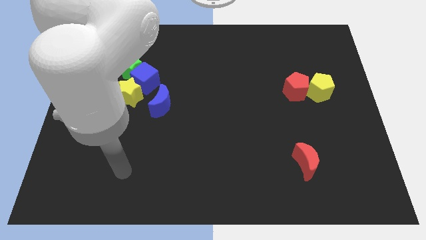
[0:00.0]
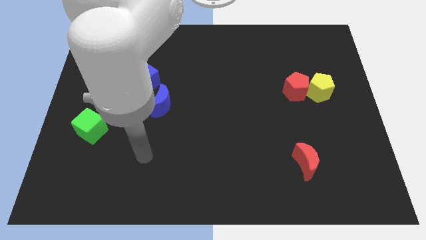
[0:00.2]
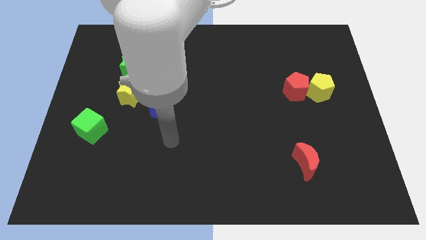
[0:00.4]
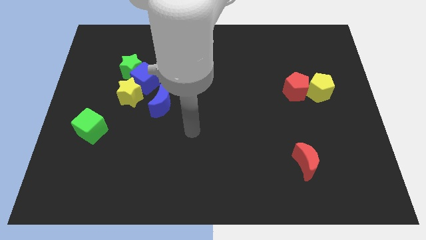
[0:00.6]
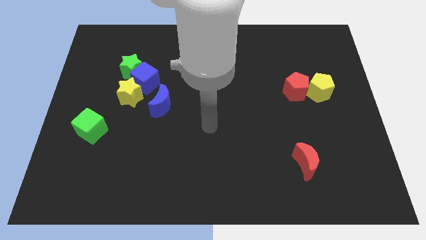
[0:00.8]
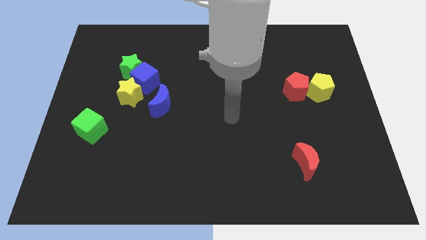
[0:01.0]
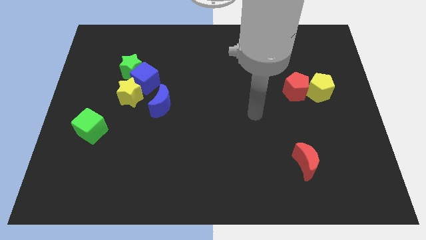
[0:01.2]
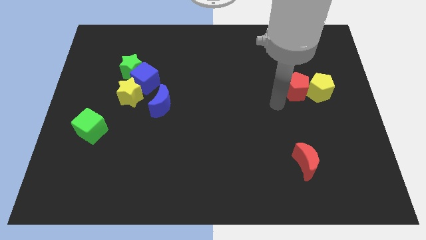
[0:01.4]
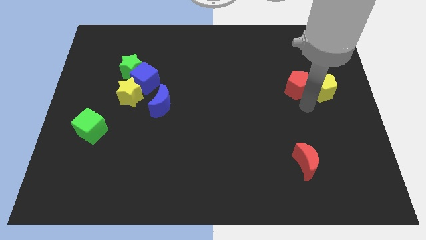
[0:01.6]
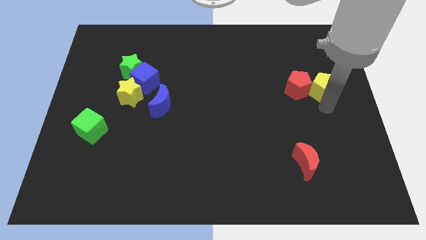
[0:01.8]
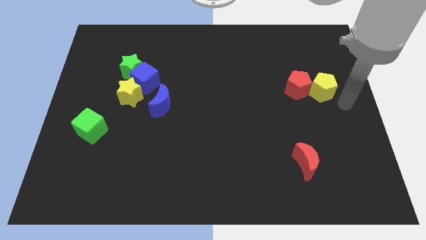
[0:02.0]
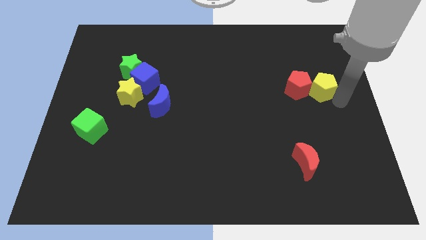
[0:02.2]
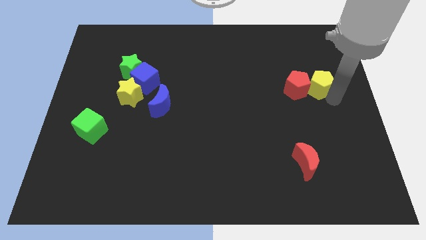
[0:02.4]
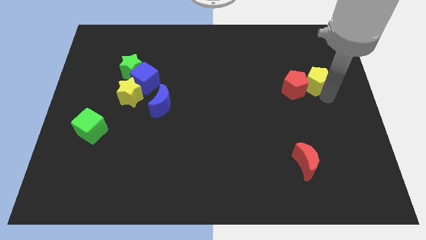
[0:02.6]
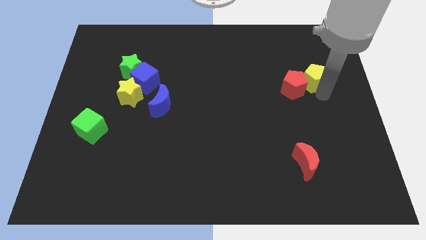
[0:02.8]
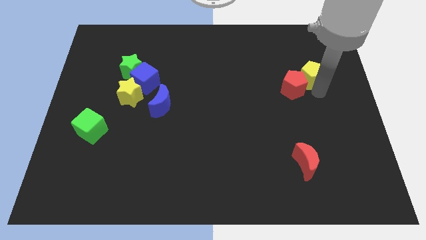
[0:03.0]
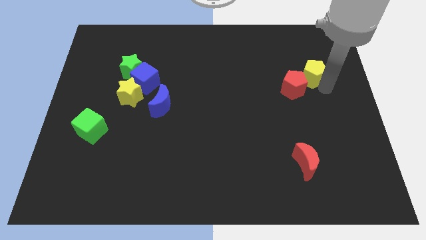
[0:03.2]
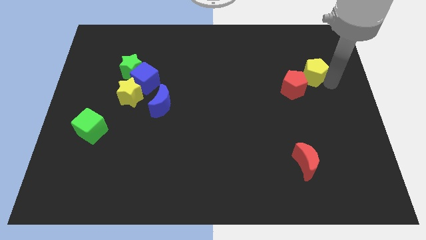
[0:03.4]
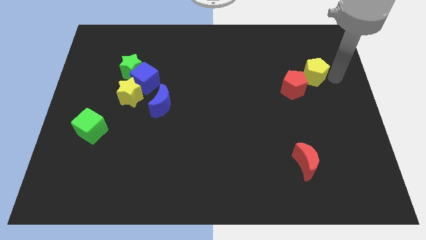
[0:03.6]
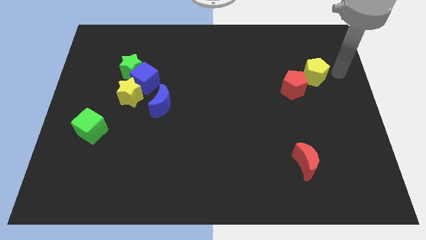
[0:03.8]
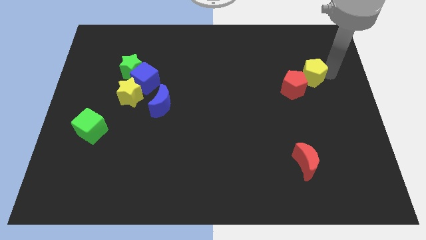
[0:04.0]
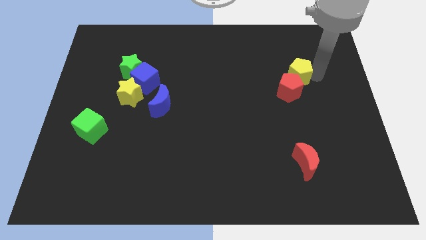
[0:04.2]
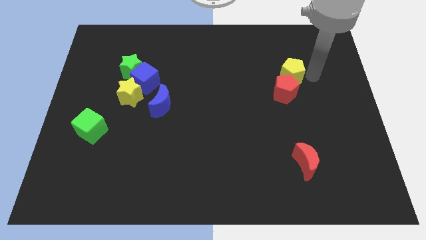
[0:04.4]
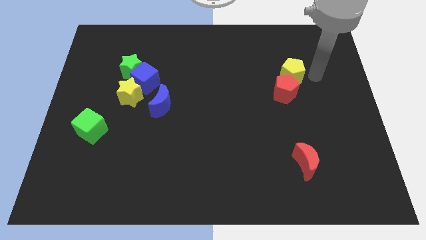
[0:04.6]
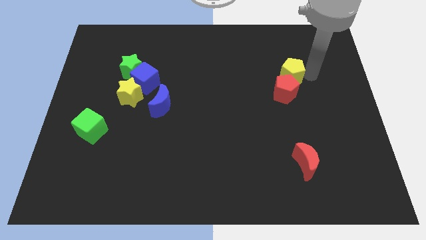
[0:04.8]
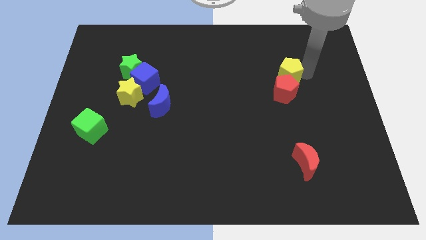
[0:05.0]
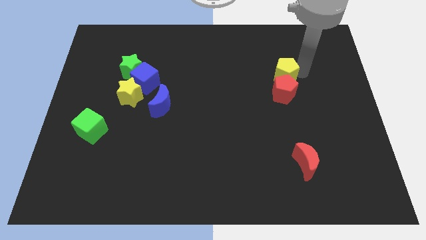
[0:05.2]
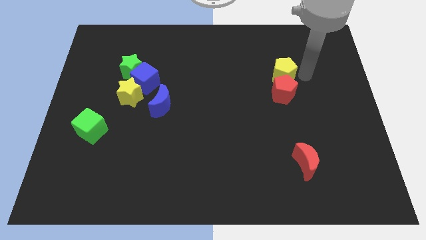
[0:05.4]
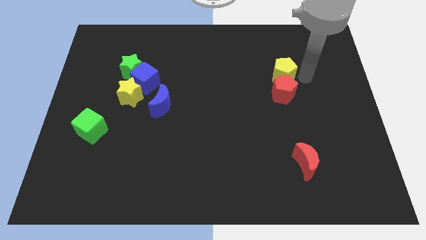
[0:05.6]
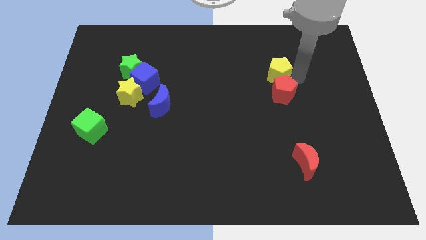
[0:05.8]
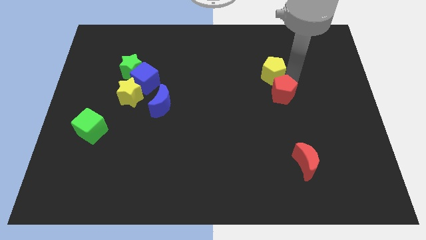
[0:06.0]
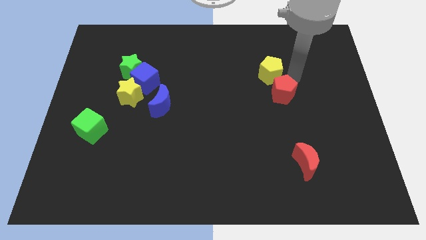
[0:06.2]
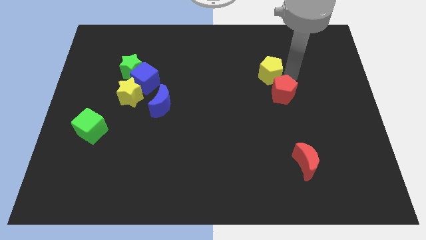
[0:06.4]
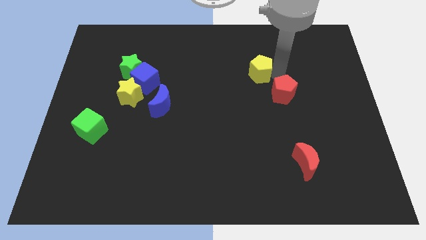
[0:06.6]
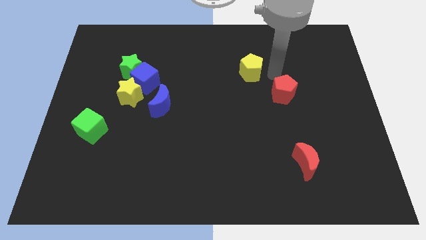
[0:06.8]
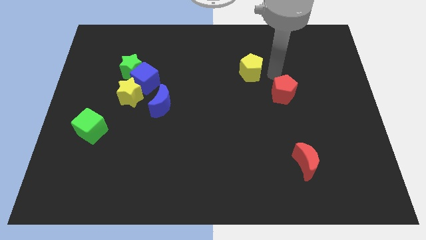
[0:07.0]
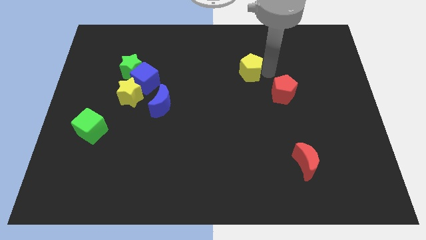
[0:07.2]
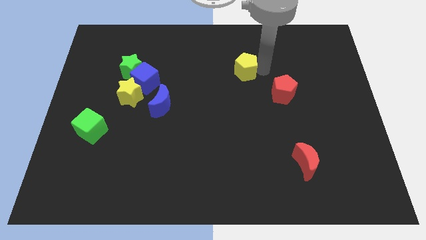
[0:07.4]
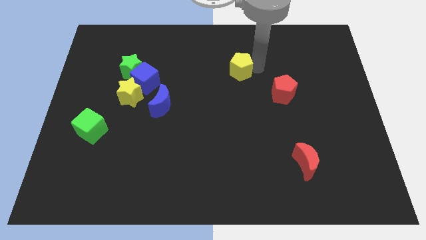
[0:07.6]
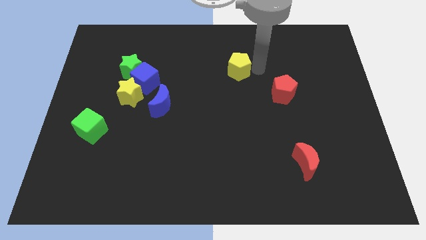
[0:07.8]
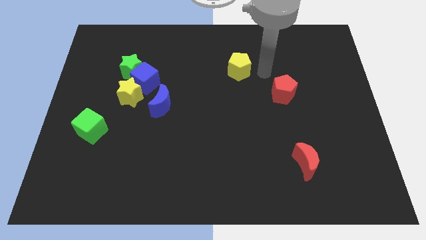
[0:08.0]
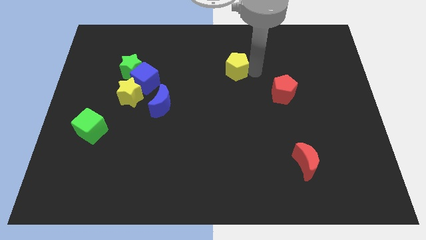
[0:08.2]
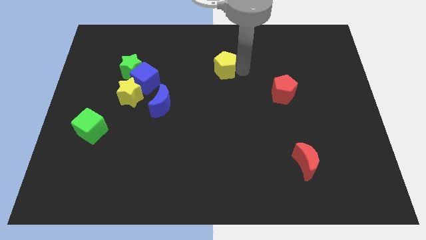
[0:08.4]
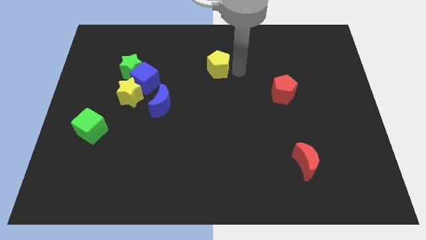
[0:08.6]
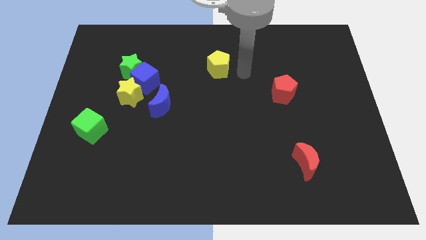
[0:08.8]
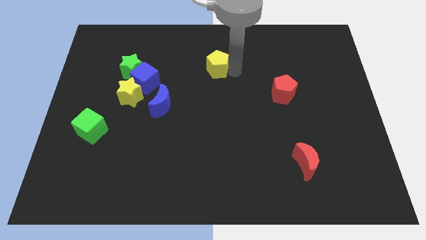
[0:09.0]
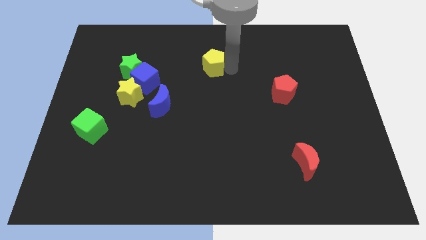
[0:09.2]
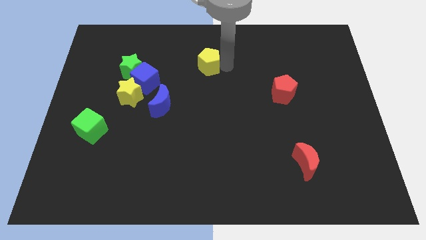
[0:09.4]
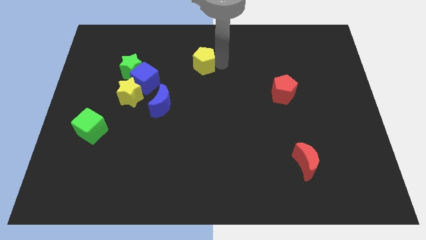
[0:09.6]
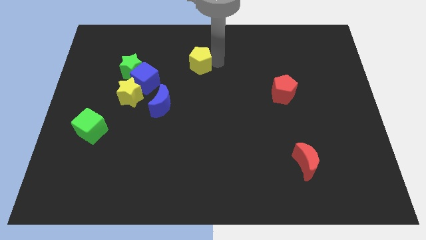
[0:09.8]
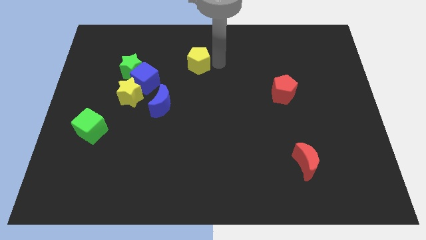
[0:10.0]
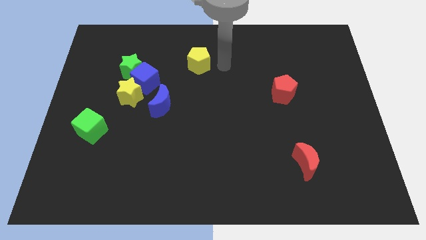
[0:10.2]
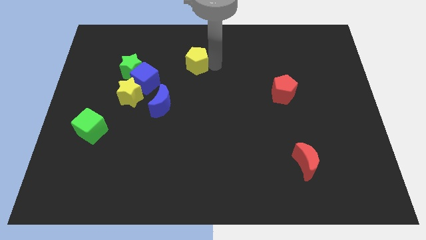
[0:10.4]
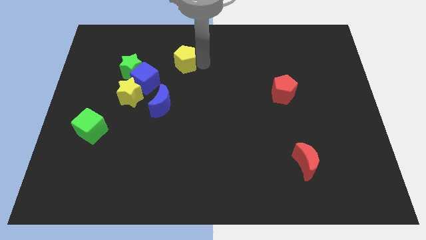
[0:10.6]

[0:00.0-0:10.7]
put the yellow pentagon to the top right side of the blue cube

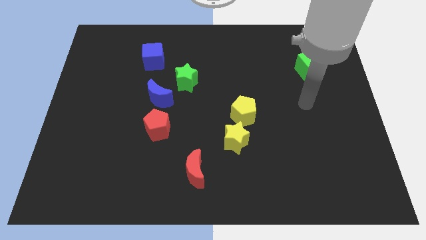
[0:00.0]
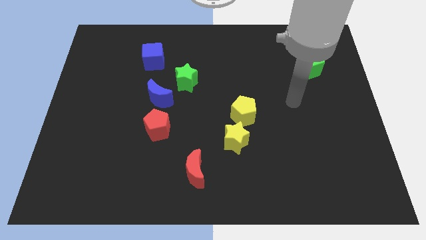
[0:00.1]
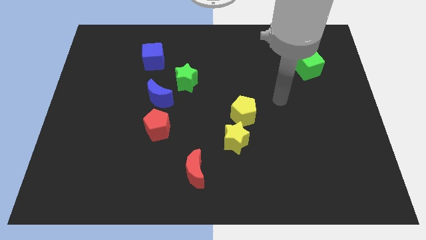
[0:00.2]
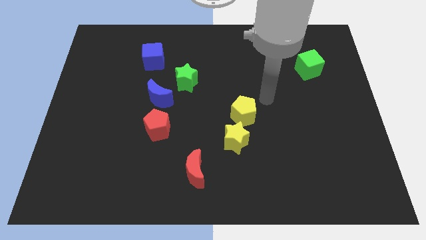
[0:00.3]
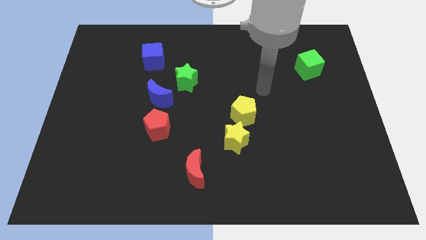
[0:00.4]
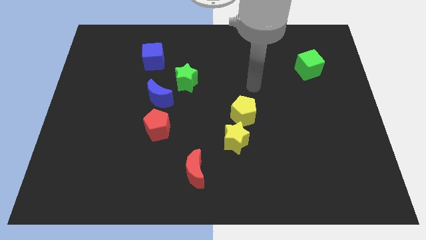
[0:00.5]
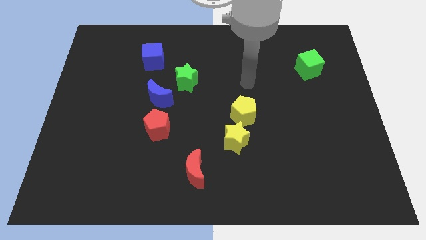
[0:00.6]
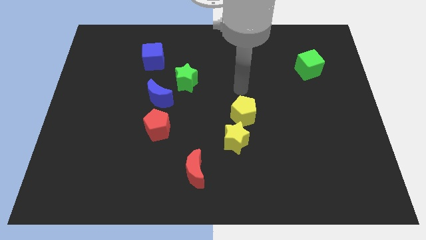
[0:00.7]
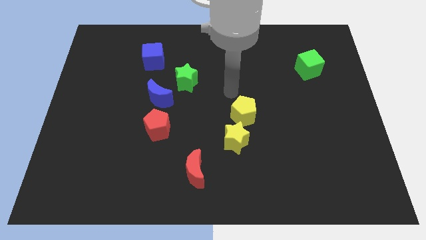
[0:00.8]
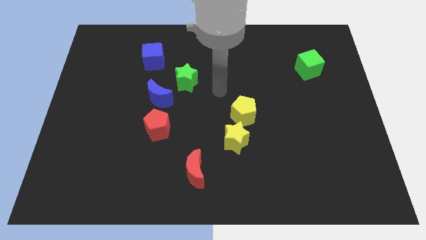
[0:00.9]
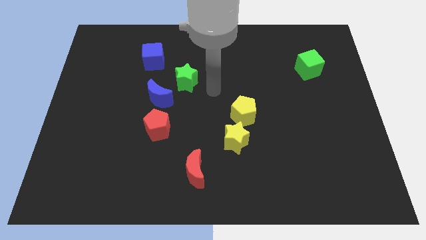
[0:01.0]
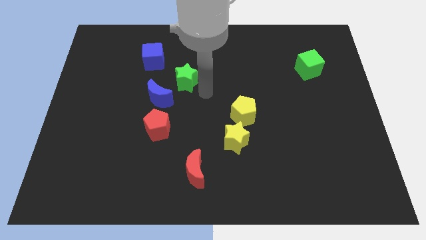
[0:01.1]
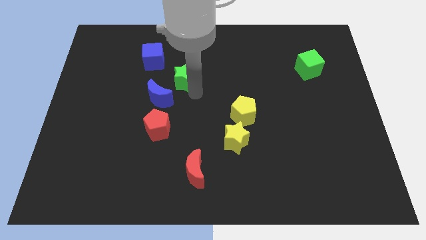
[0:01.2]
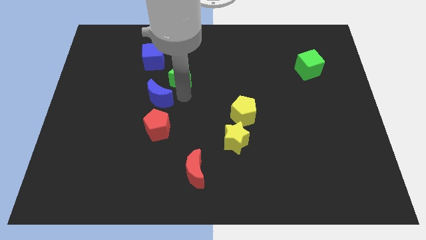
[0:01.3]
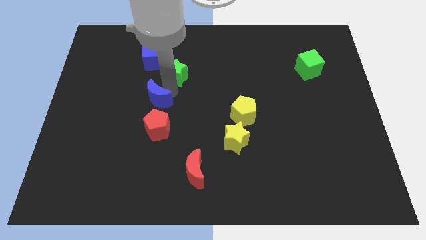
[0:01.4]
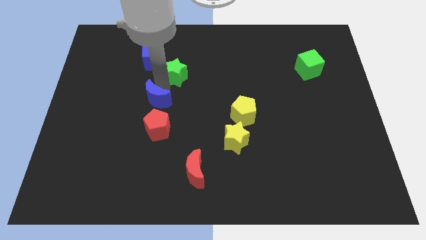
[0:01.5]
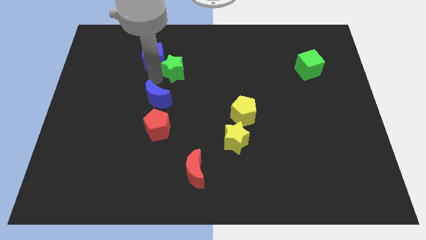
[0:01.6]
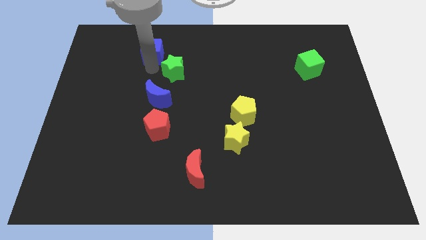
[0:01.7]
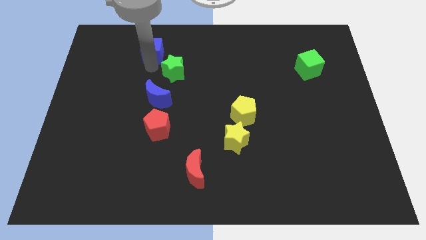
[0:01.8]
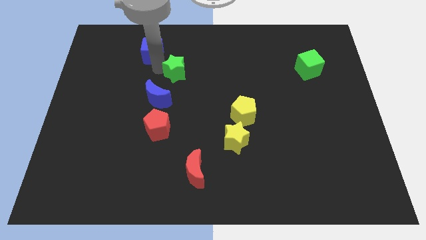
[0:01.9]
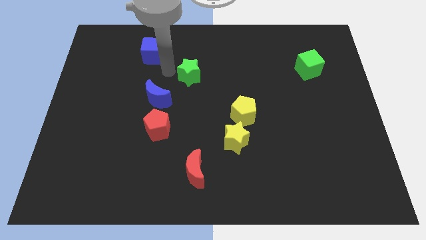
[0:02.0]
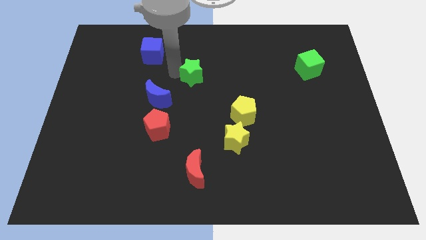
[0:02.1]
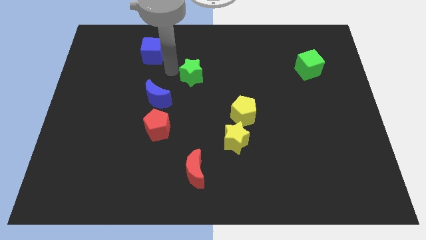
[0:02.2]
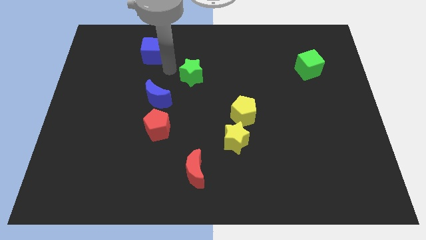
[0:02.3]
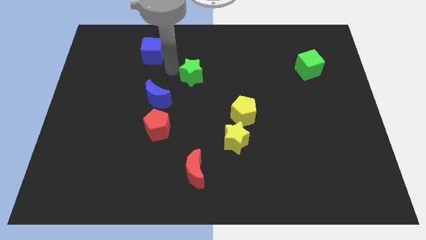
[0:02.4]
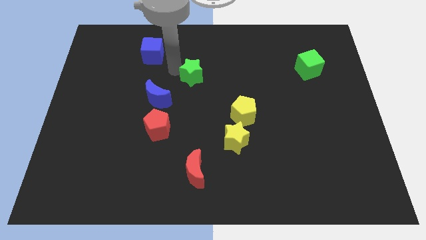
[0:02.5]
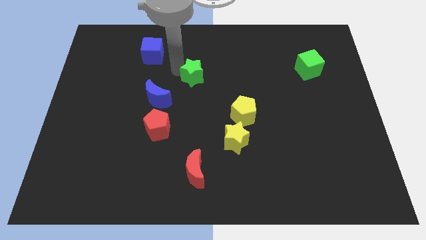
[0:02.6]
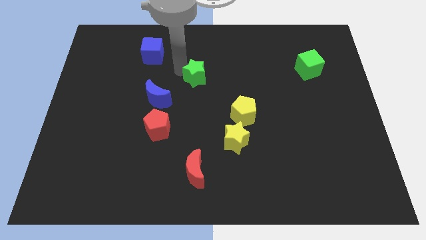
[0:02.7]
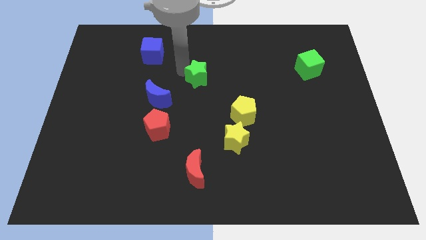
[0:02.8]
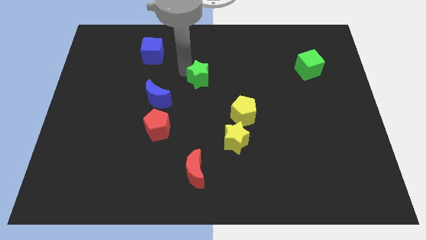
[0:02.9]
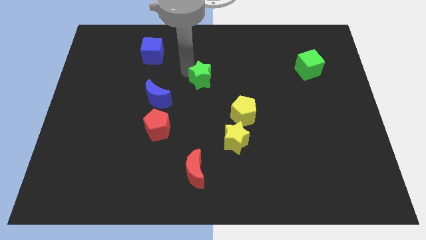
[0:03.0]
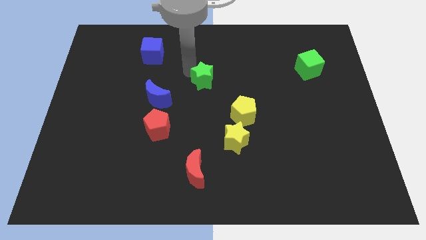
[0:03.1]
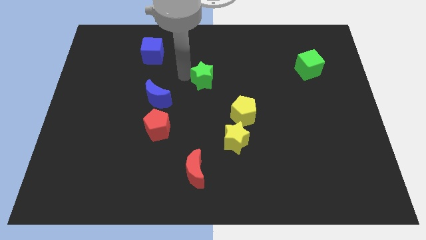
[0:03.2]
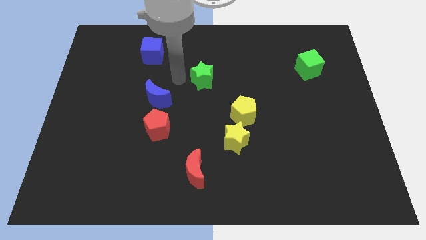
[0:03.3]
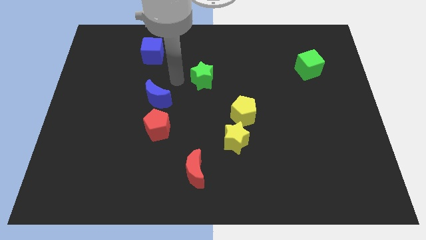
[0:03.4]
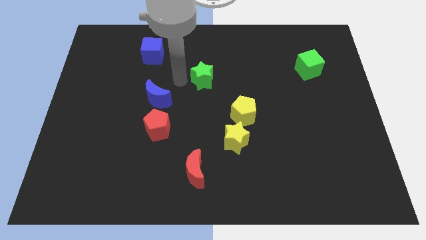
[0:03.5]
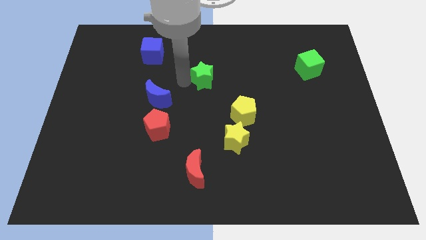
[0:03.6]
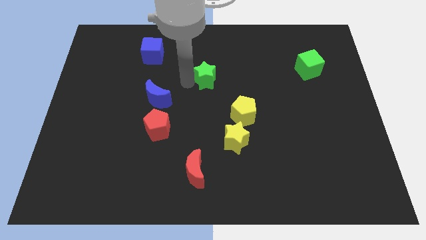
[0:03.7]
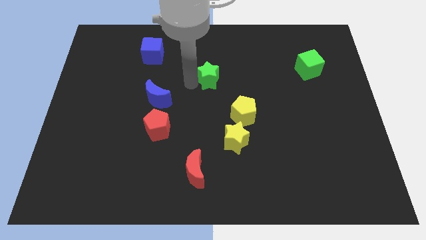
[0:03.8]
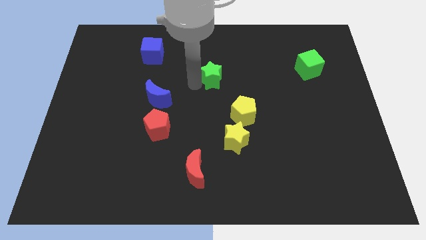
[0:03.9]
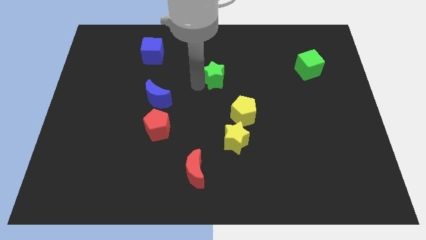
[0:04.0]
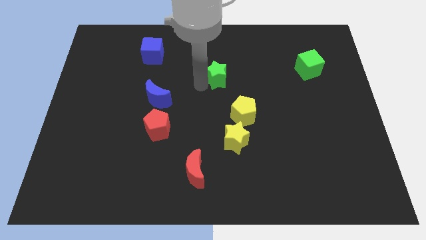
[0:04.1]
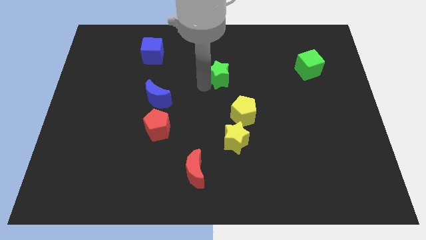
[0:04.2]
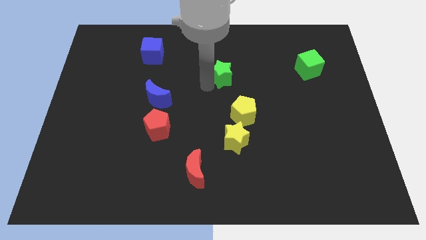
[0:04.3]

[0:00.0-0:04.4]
slide the green star above the yellow pentagon
